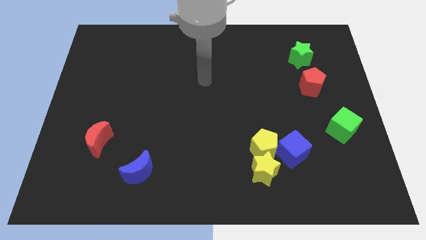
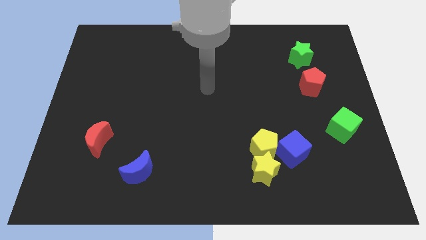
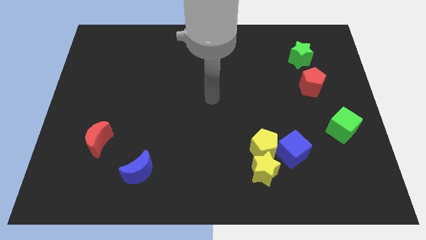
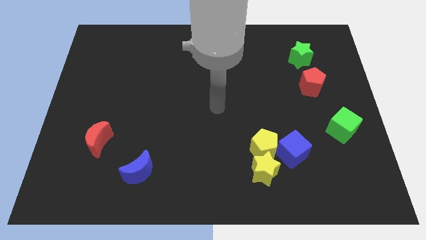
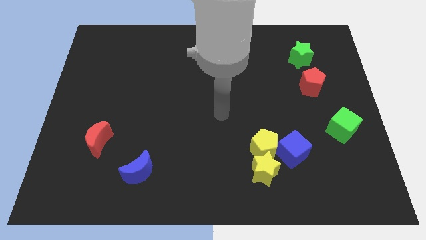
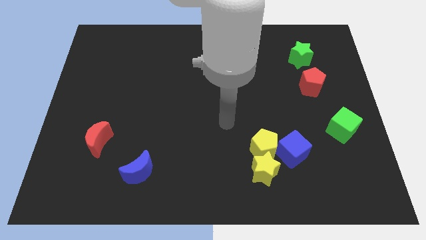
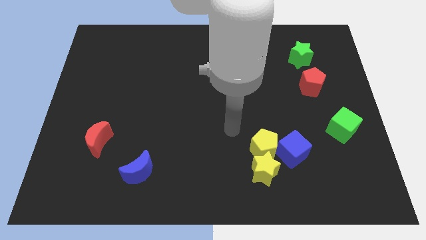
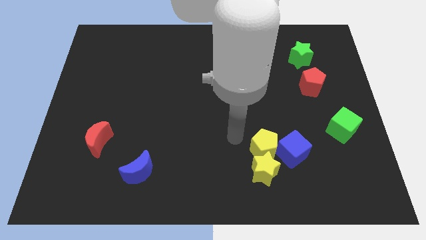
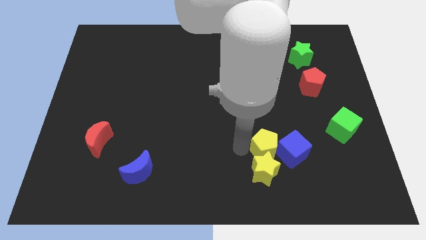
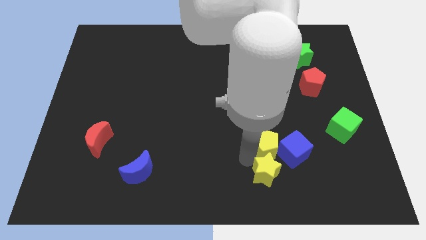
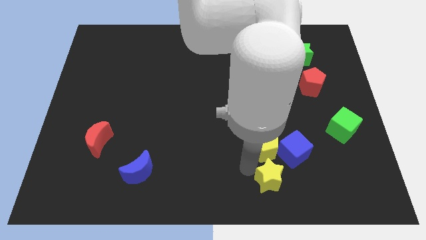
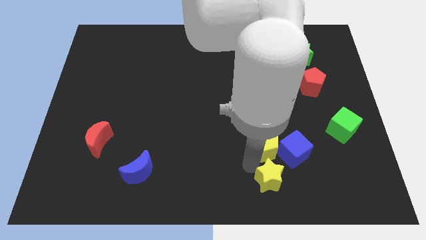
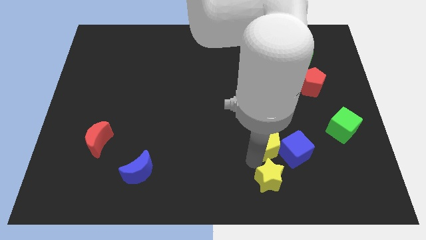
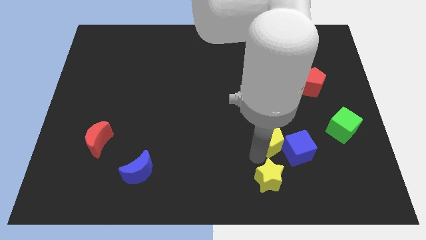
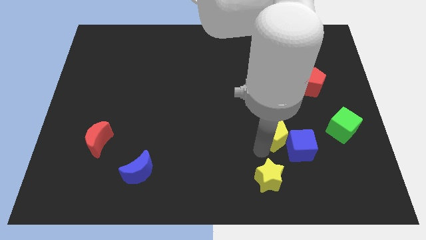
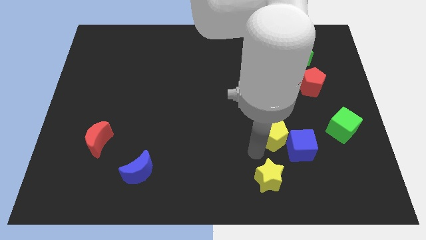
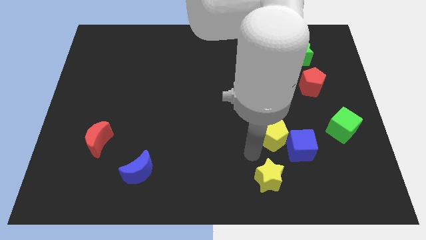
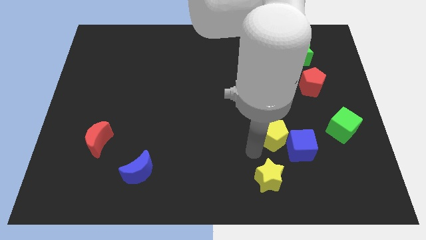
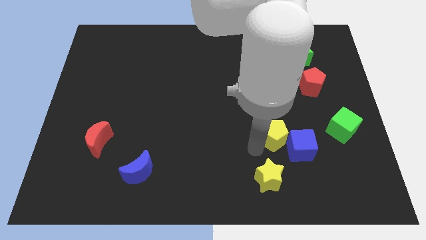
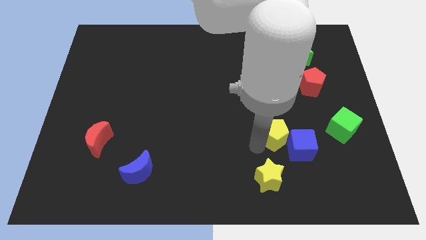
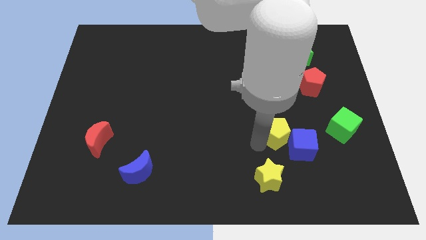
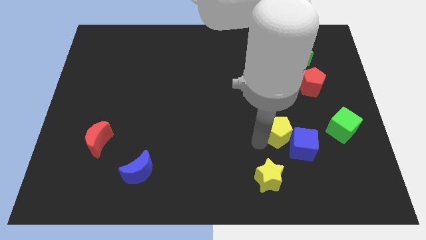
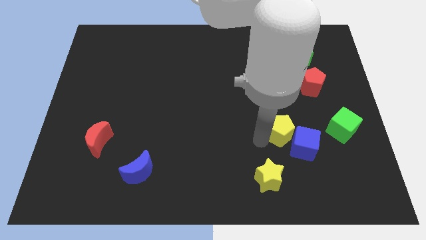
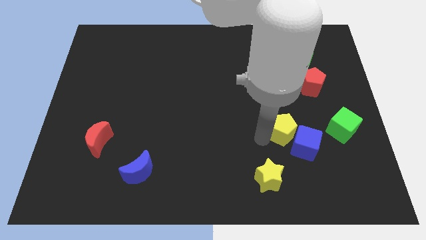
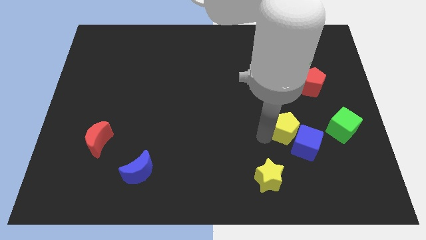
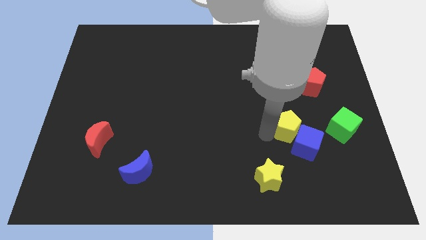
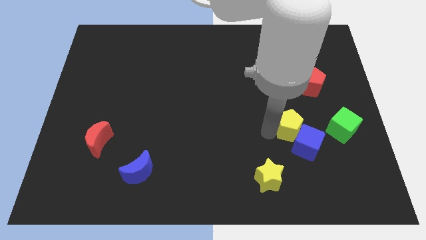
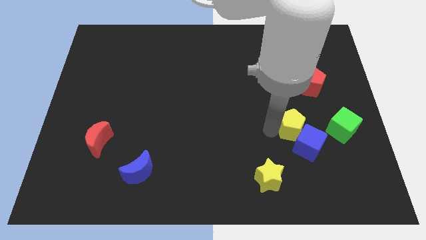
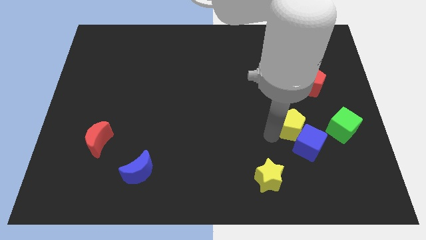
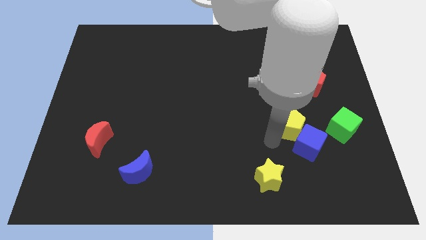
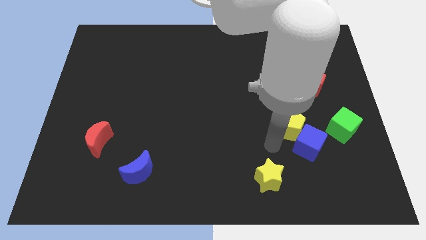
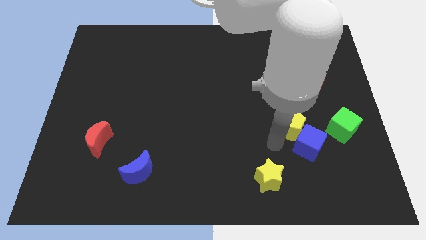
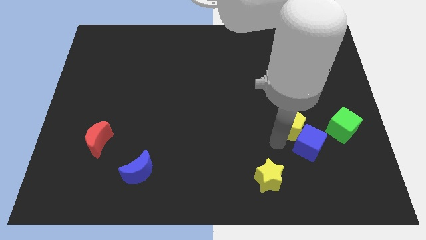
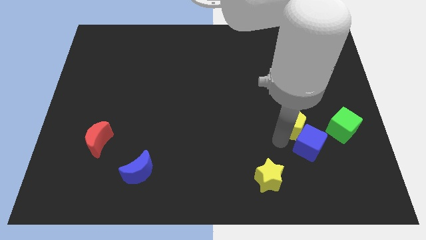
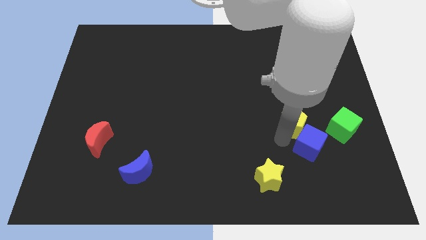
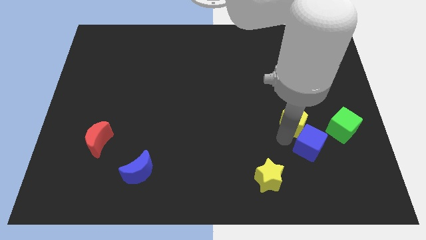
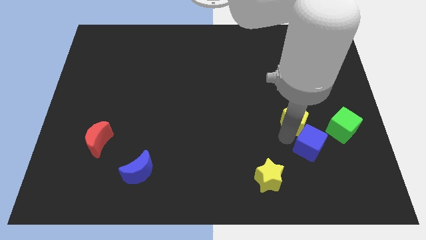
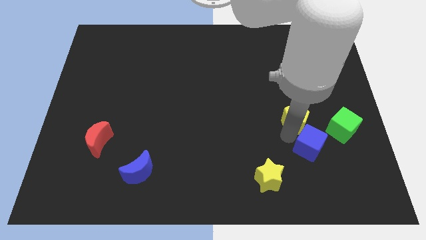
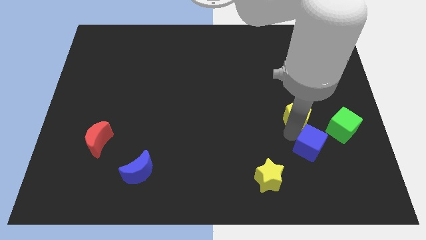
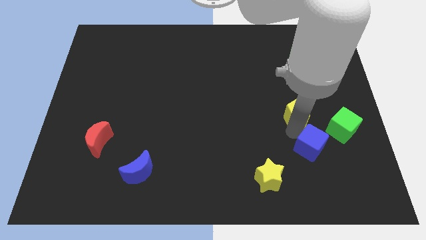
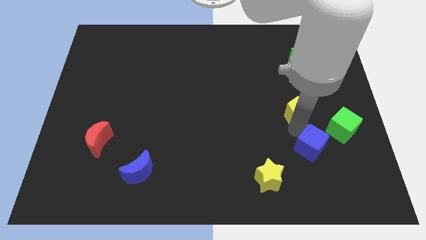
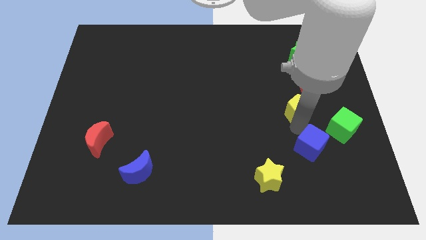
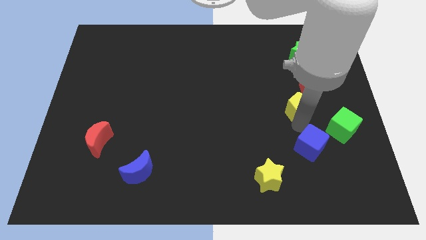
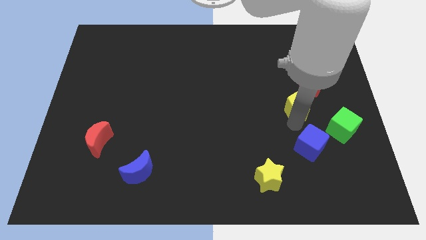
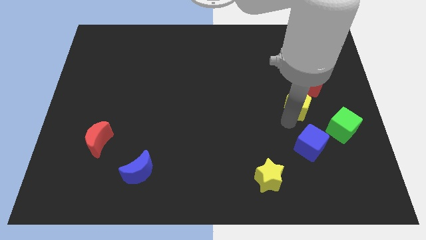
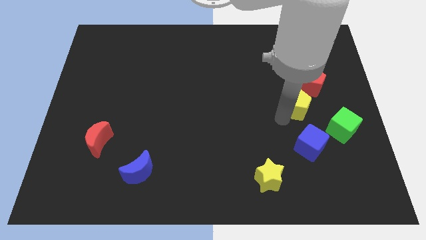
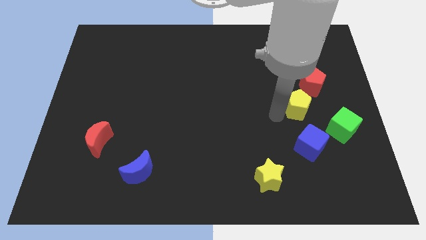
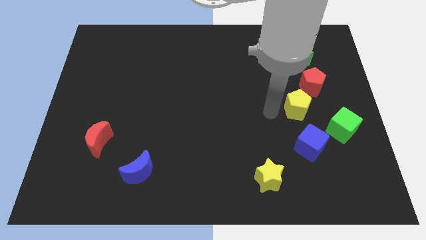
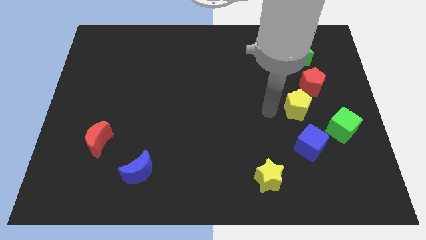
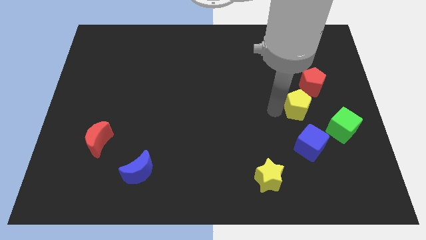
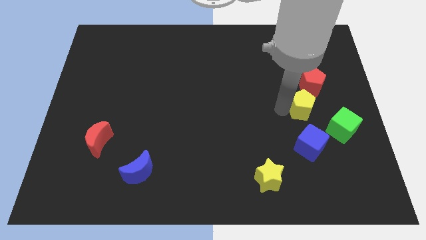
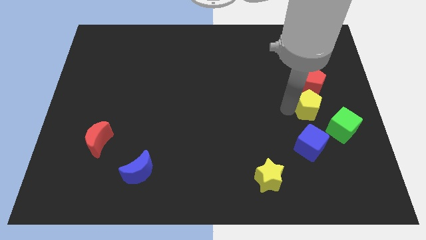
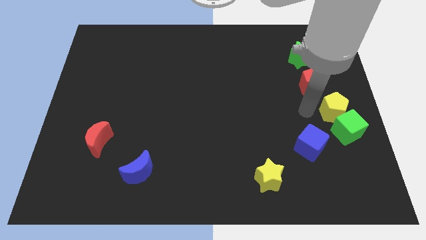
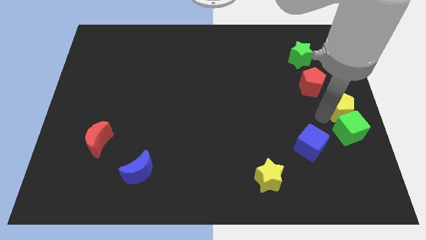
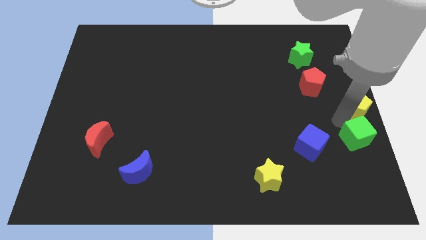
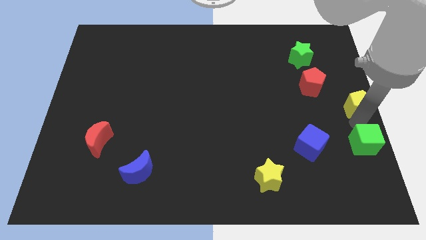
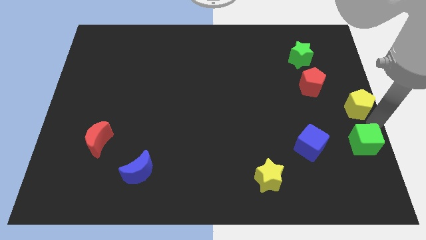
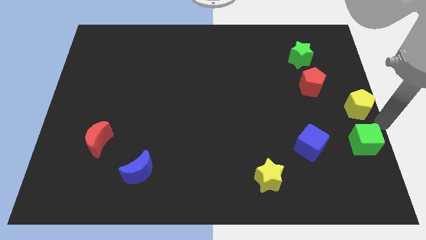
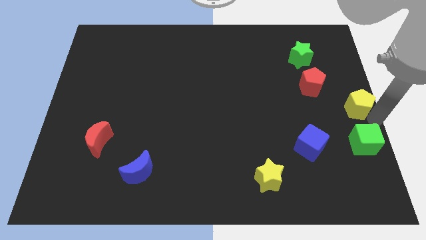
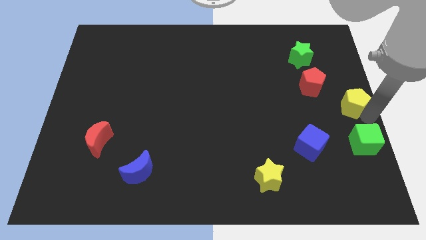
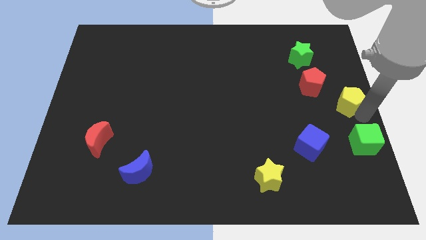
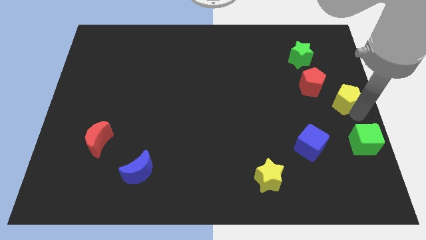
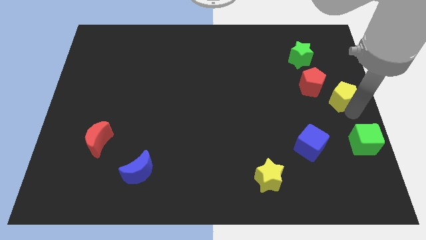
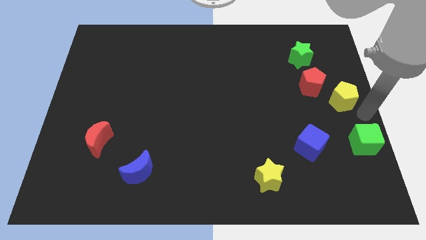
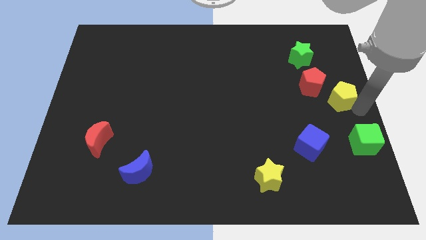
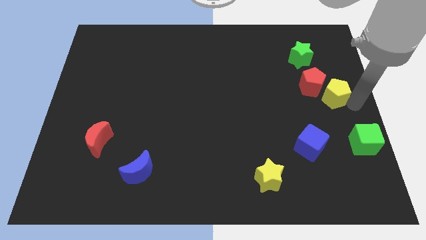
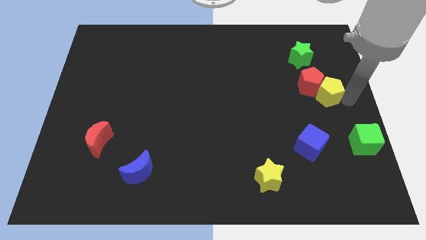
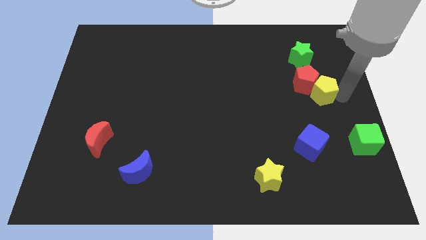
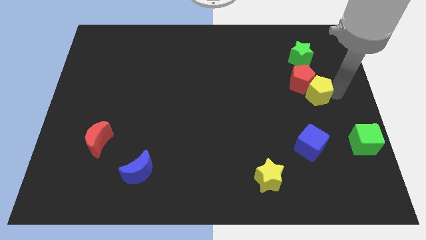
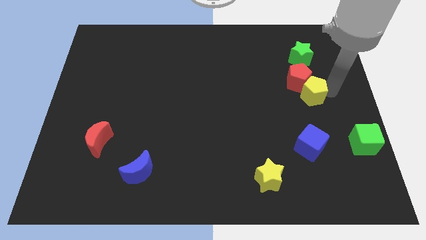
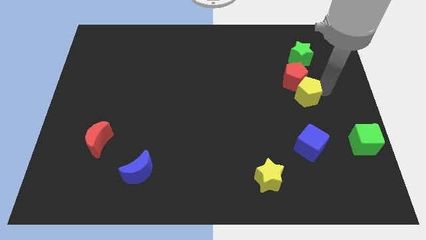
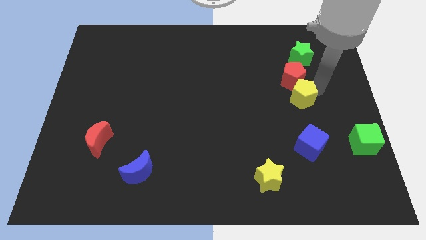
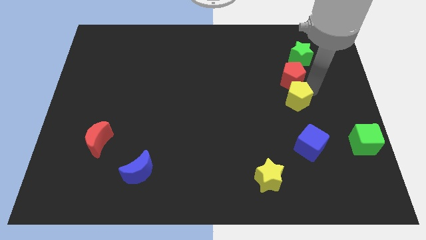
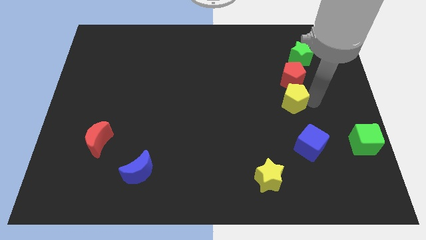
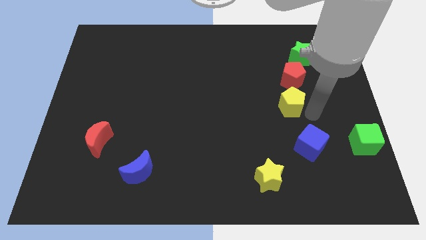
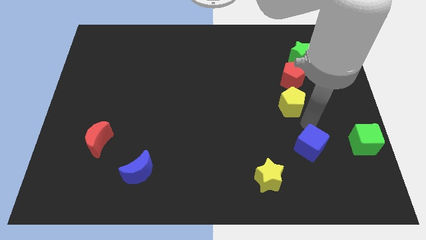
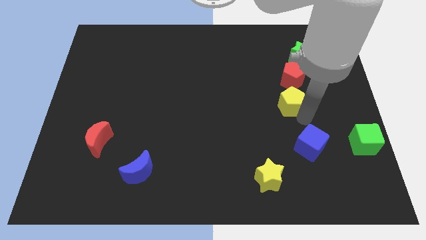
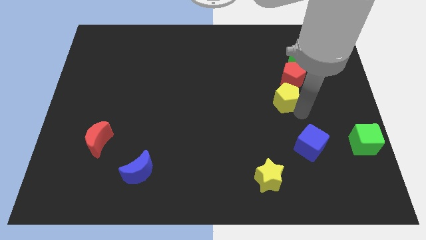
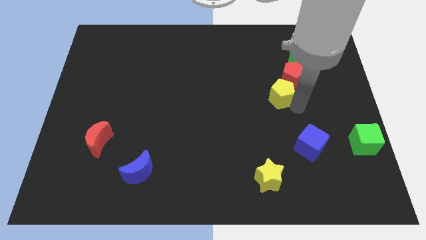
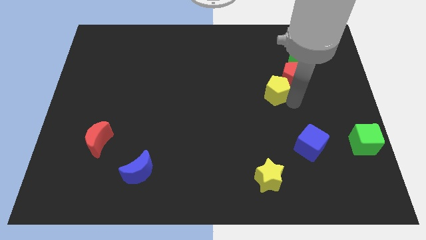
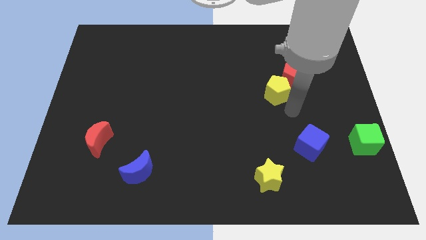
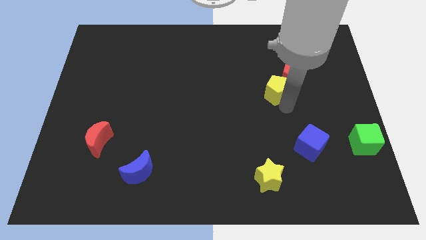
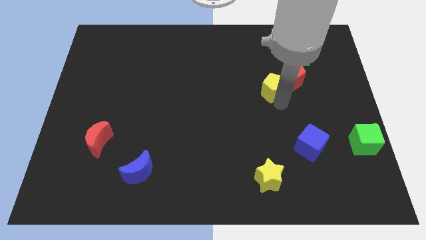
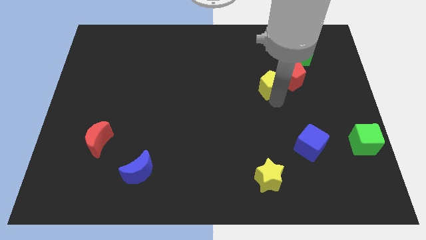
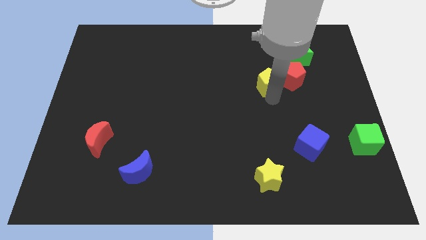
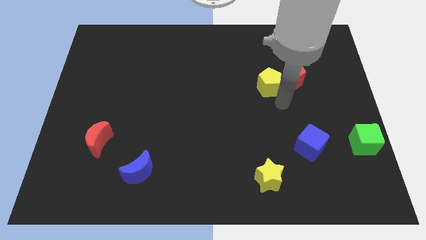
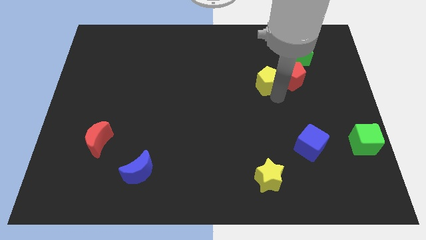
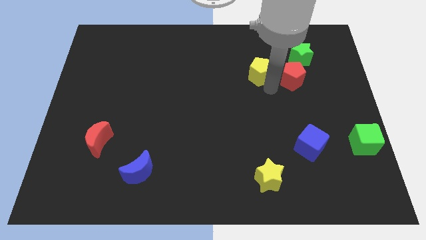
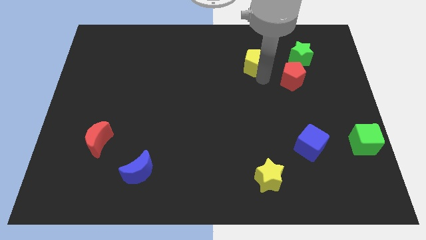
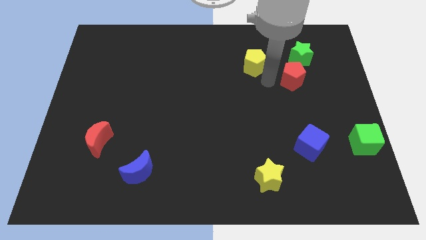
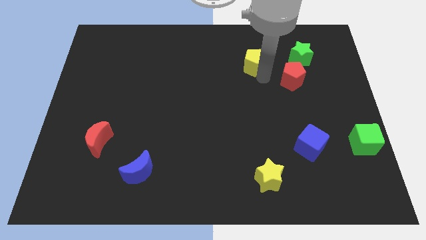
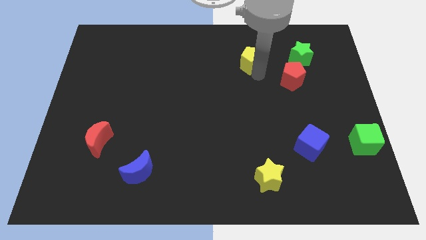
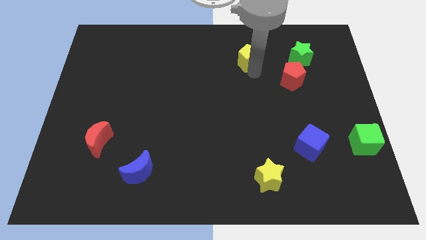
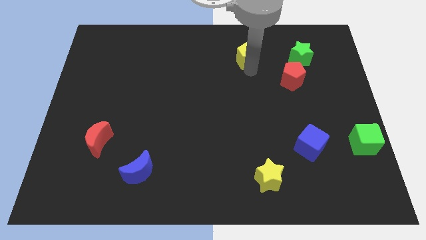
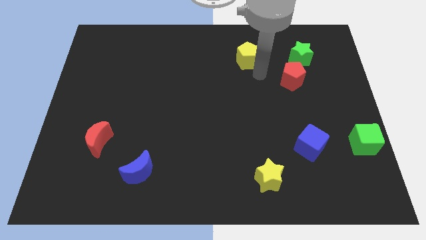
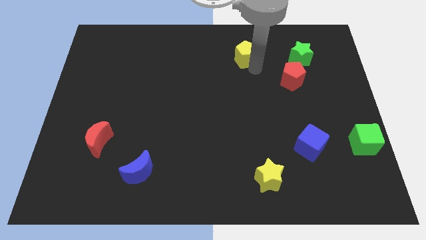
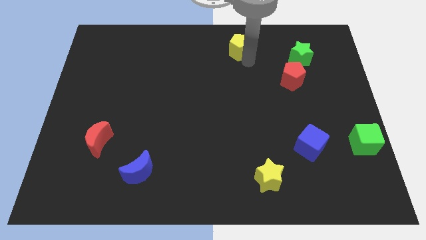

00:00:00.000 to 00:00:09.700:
move the yellow pentagon to the top side
